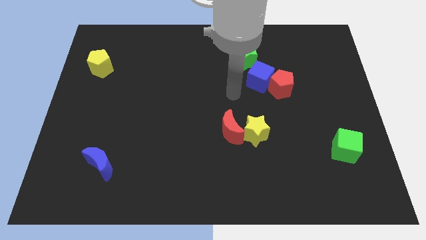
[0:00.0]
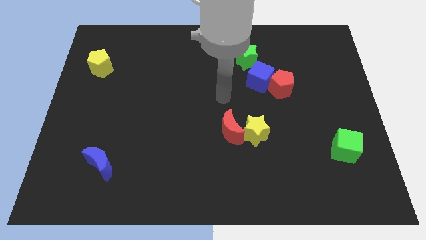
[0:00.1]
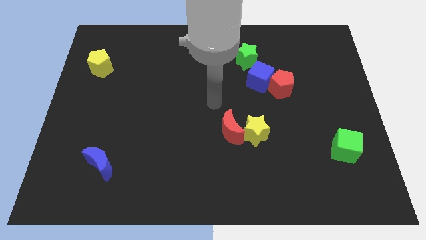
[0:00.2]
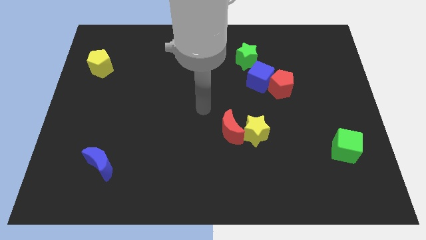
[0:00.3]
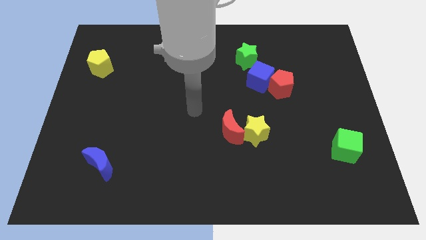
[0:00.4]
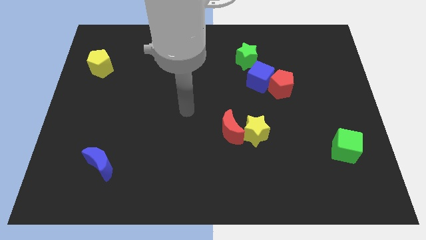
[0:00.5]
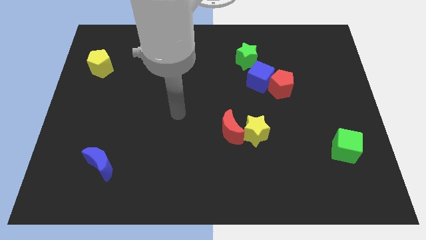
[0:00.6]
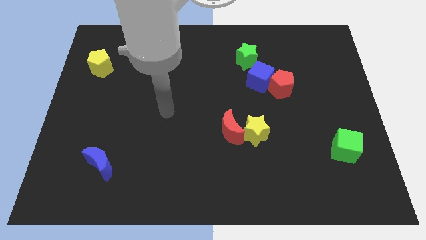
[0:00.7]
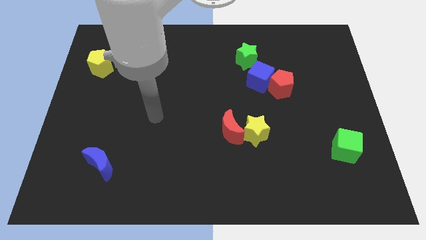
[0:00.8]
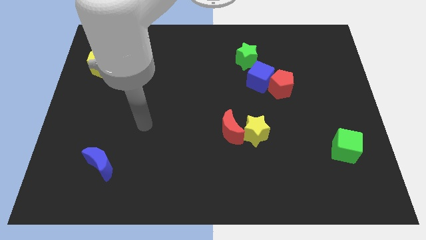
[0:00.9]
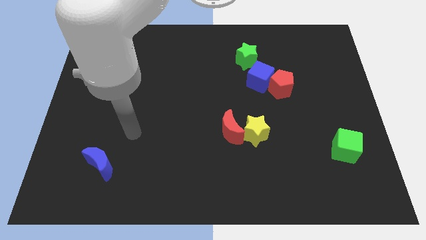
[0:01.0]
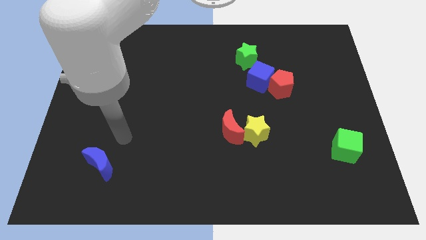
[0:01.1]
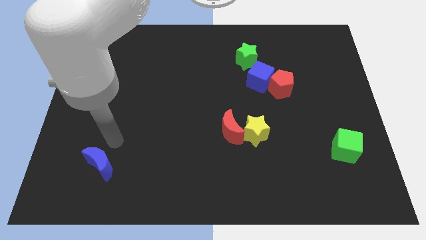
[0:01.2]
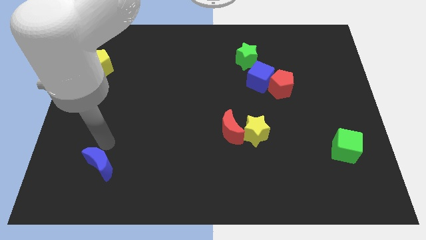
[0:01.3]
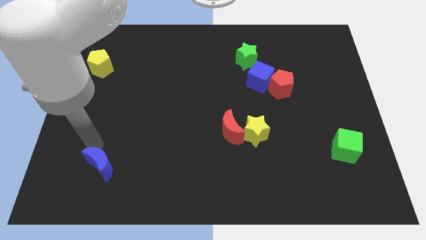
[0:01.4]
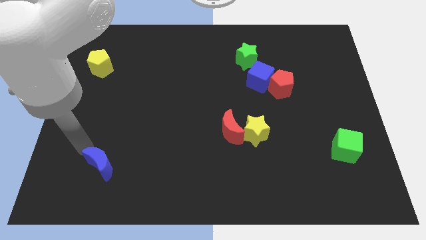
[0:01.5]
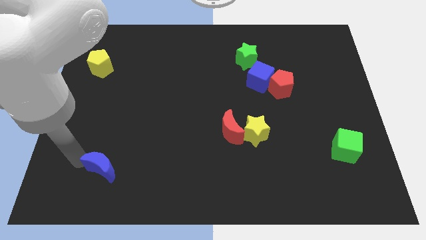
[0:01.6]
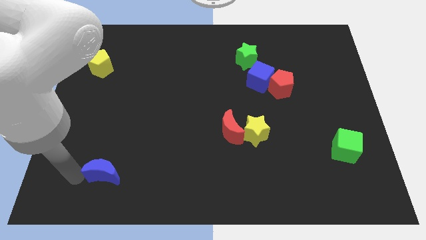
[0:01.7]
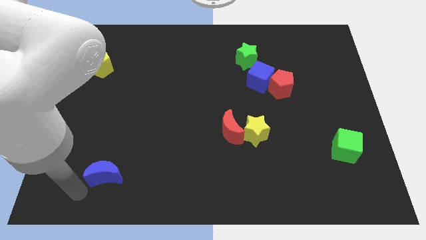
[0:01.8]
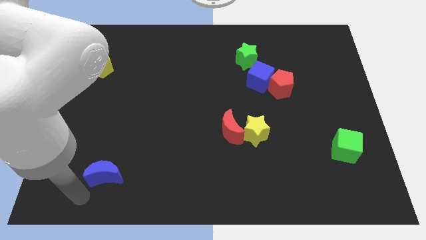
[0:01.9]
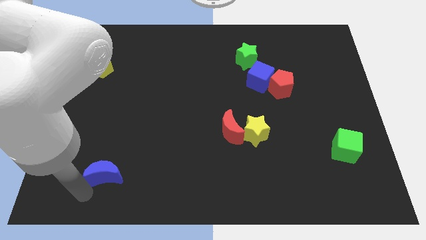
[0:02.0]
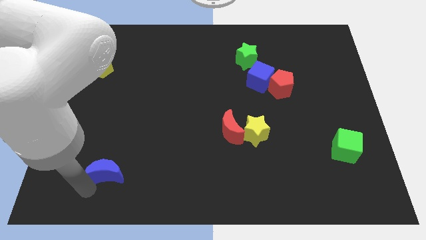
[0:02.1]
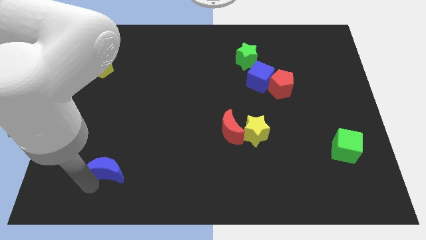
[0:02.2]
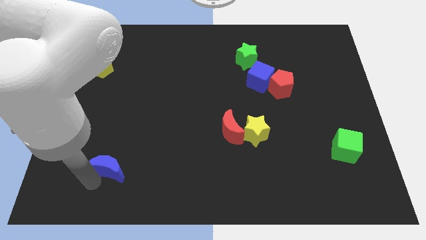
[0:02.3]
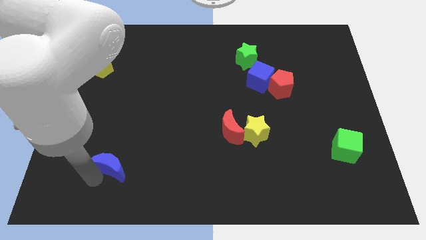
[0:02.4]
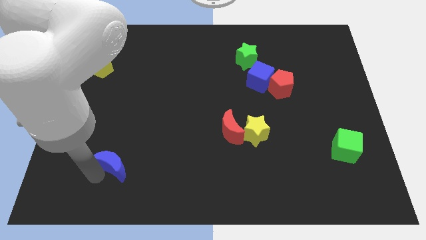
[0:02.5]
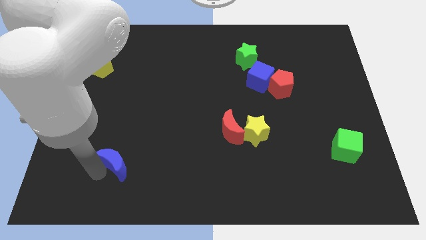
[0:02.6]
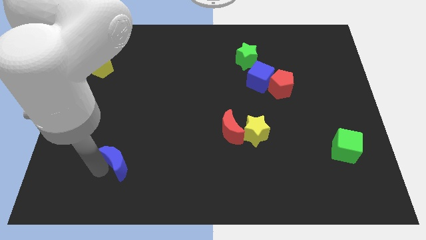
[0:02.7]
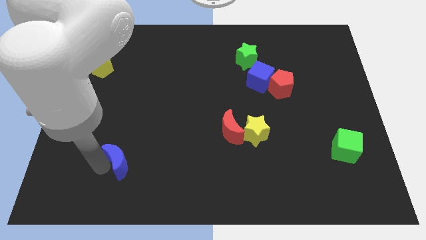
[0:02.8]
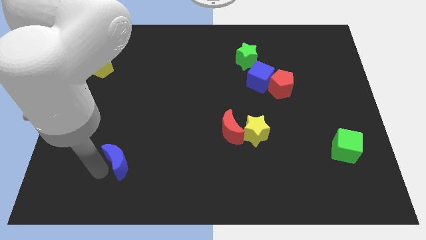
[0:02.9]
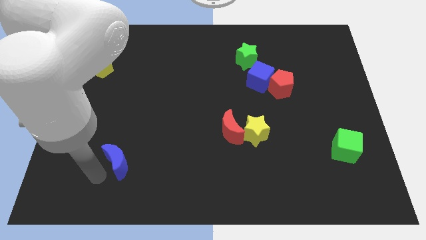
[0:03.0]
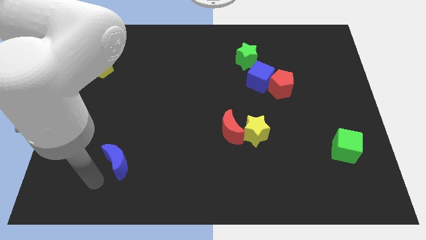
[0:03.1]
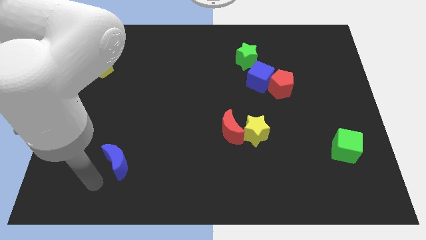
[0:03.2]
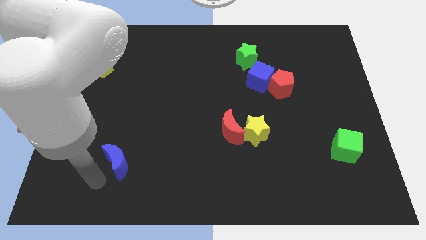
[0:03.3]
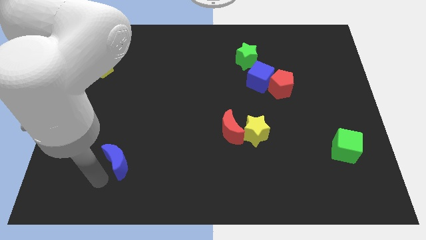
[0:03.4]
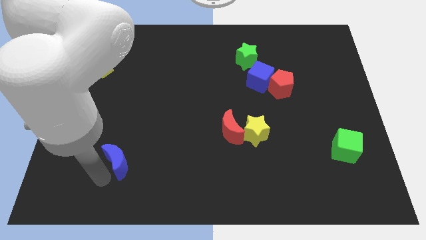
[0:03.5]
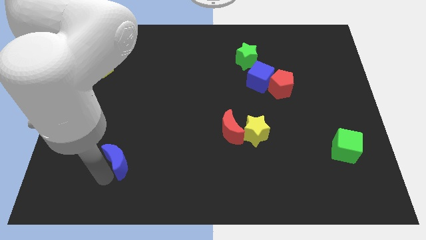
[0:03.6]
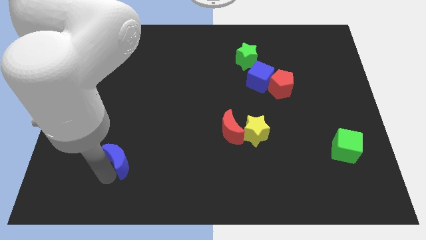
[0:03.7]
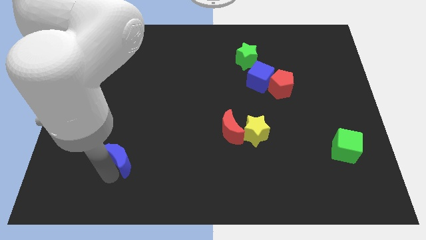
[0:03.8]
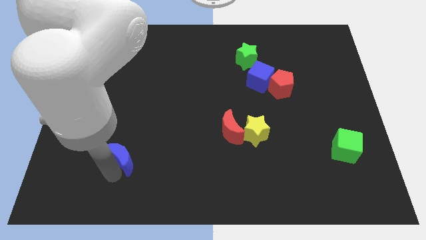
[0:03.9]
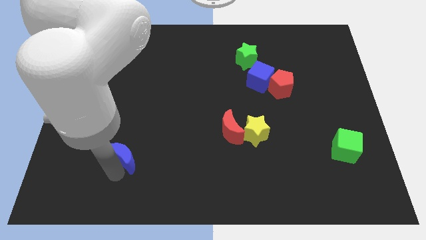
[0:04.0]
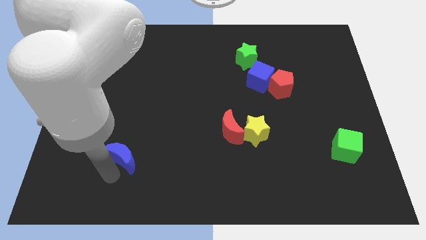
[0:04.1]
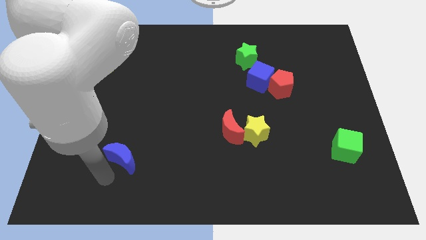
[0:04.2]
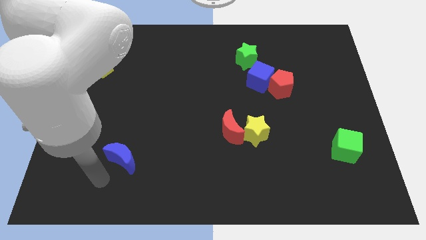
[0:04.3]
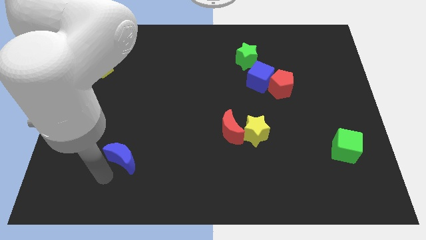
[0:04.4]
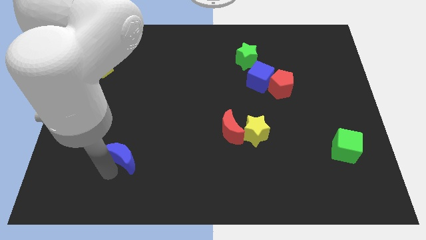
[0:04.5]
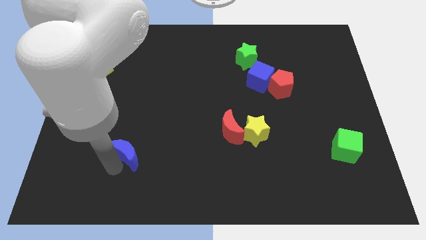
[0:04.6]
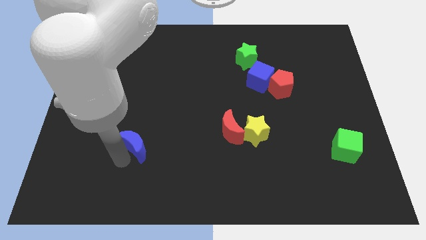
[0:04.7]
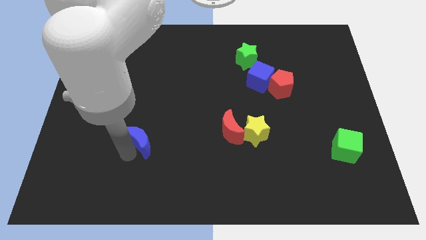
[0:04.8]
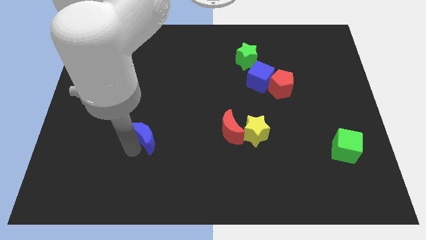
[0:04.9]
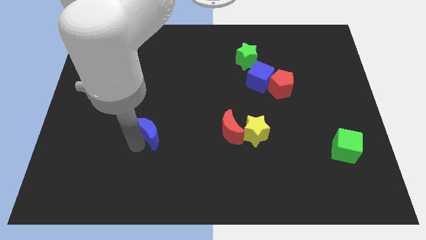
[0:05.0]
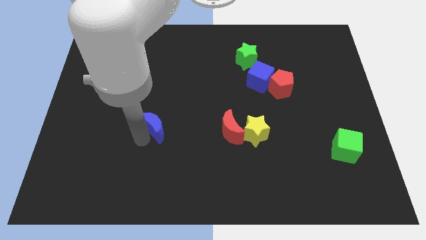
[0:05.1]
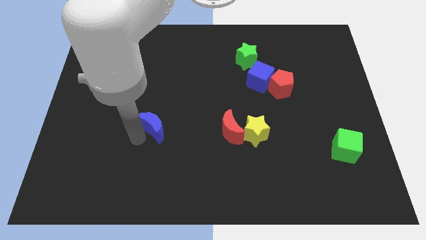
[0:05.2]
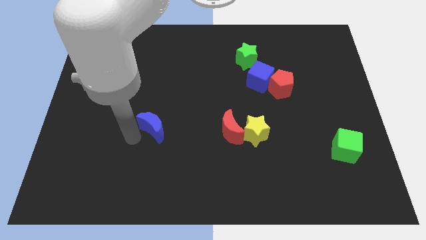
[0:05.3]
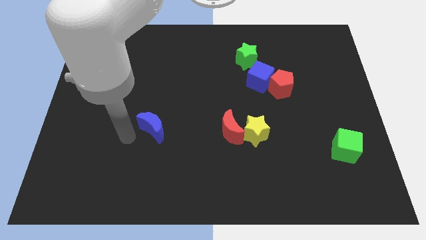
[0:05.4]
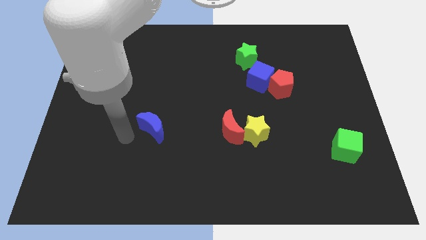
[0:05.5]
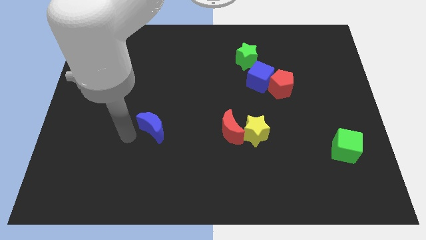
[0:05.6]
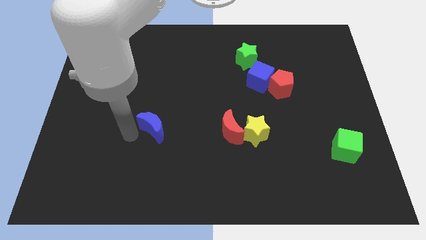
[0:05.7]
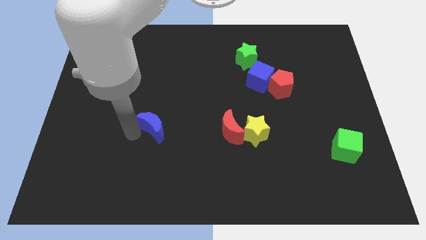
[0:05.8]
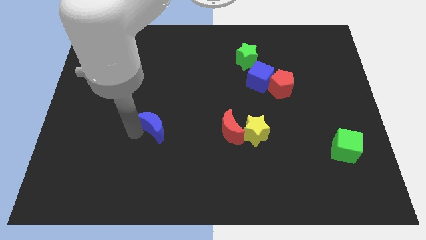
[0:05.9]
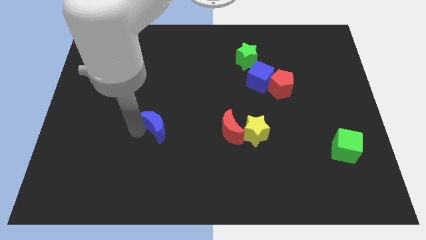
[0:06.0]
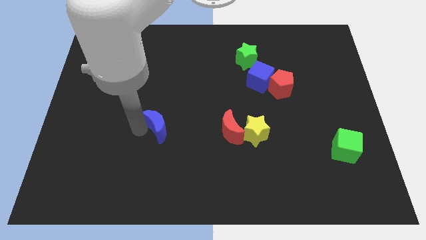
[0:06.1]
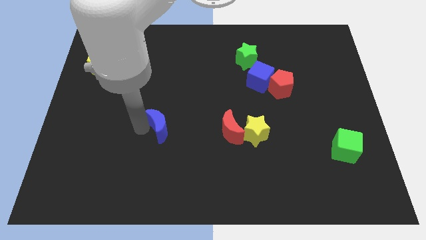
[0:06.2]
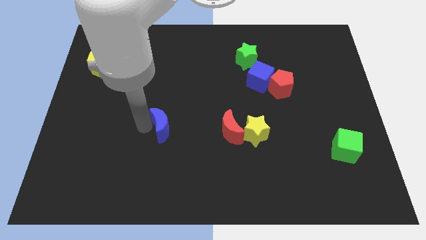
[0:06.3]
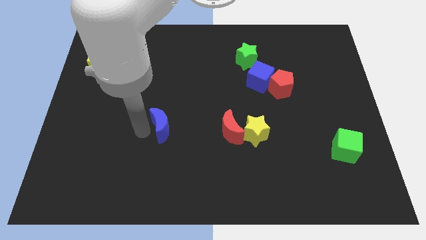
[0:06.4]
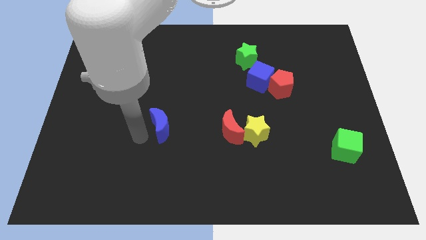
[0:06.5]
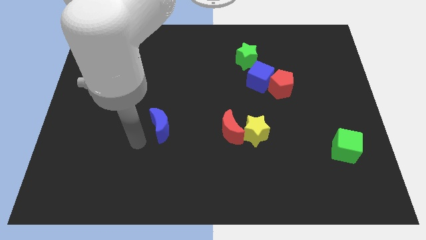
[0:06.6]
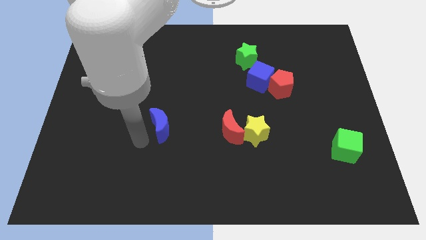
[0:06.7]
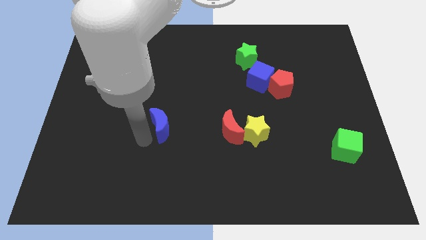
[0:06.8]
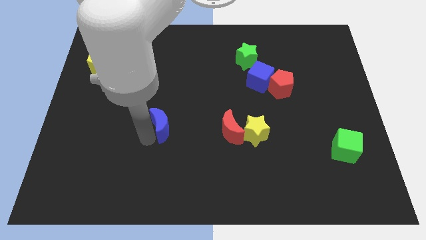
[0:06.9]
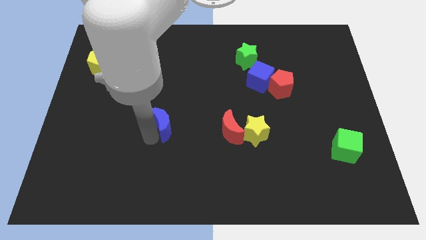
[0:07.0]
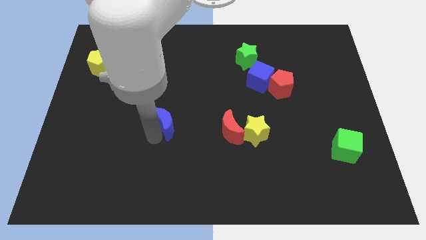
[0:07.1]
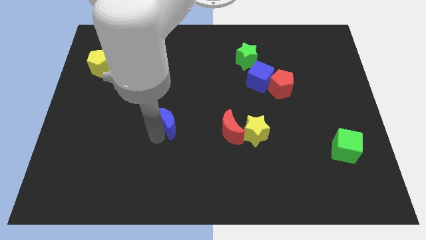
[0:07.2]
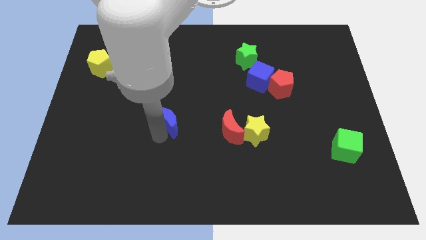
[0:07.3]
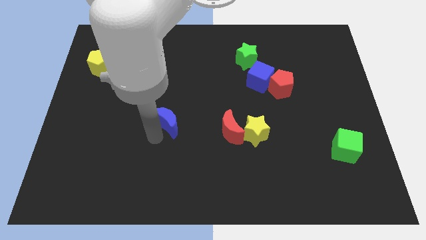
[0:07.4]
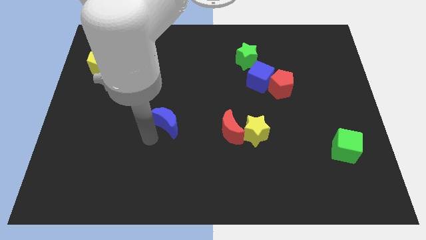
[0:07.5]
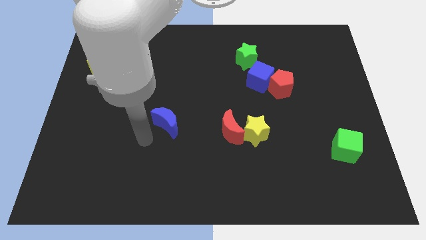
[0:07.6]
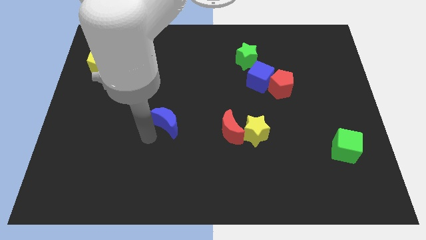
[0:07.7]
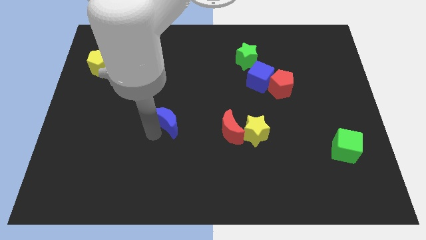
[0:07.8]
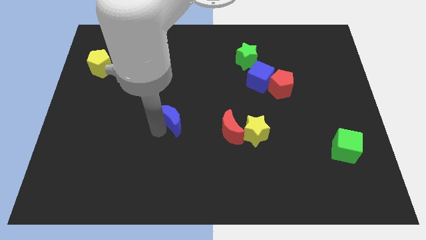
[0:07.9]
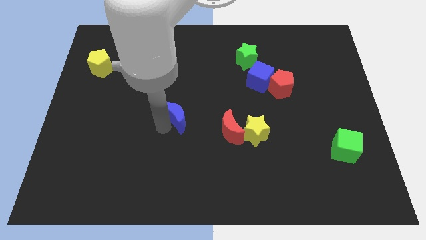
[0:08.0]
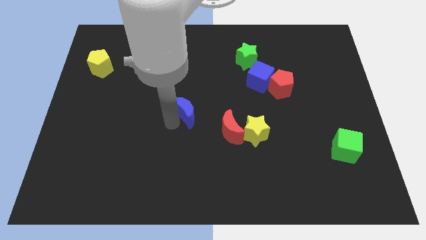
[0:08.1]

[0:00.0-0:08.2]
move the blue moon upwards and to the right diagonally
